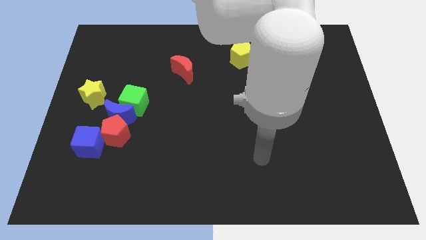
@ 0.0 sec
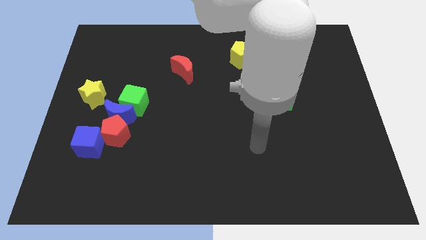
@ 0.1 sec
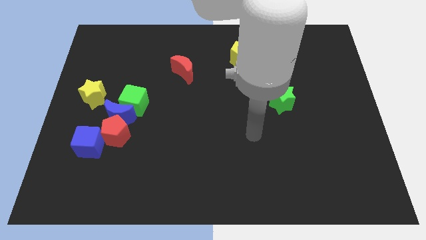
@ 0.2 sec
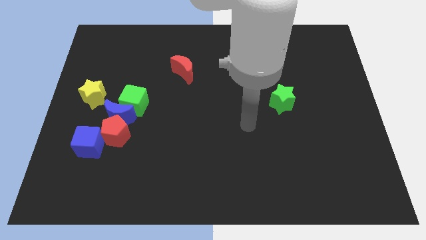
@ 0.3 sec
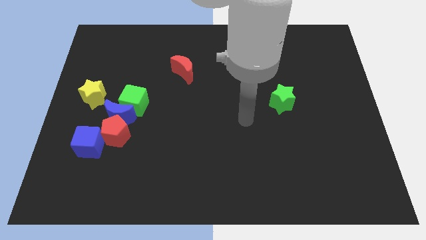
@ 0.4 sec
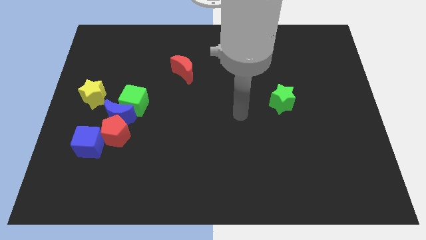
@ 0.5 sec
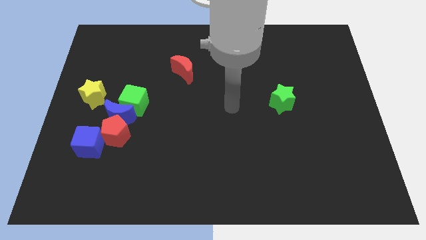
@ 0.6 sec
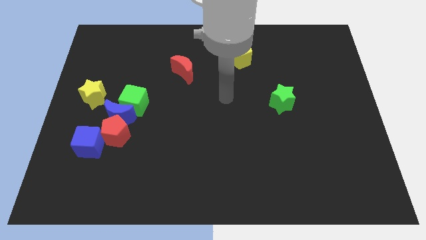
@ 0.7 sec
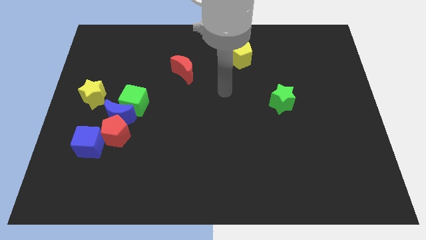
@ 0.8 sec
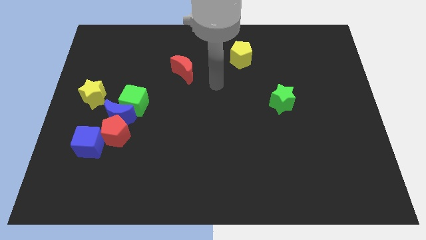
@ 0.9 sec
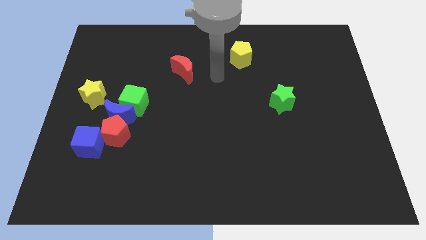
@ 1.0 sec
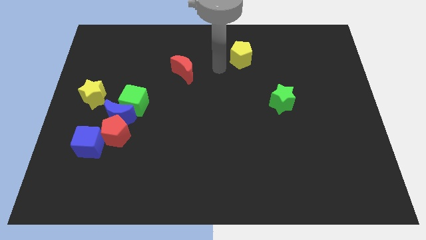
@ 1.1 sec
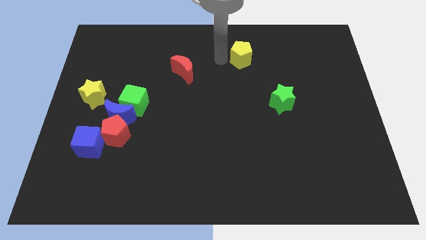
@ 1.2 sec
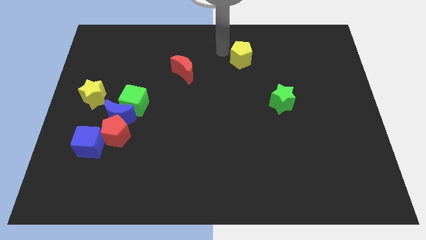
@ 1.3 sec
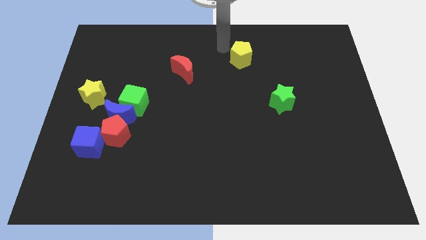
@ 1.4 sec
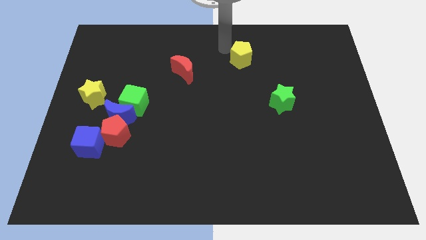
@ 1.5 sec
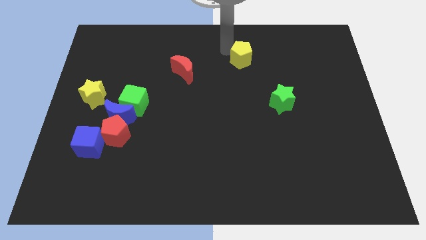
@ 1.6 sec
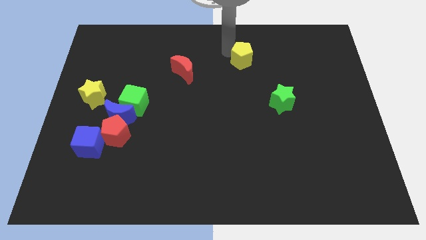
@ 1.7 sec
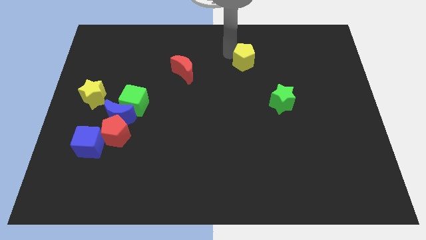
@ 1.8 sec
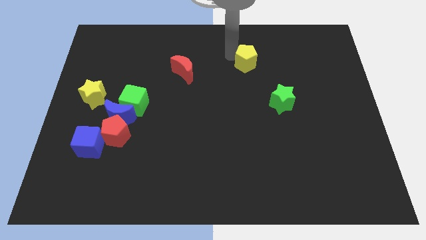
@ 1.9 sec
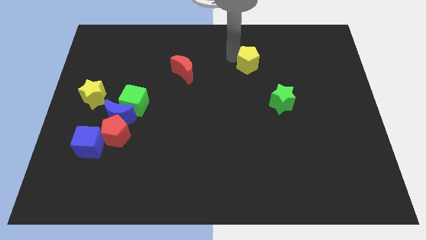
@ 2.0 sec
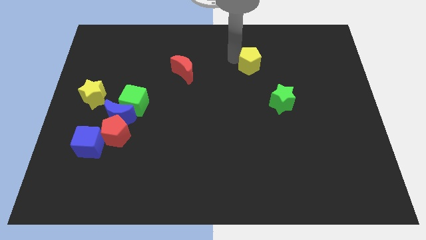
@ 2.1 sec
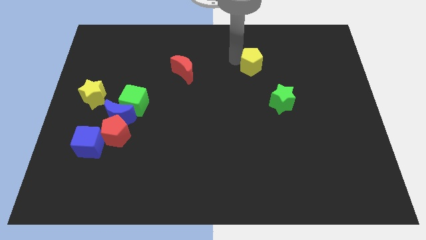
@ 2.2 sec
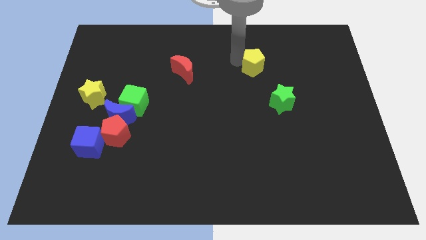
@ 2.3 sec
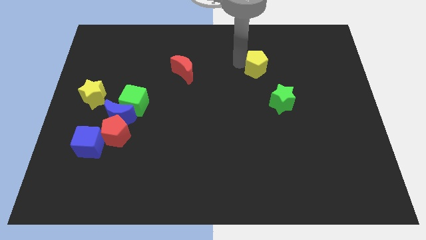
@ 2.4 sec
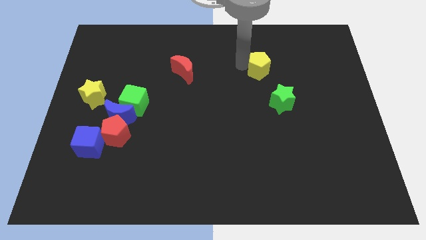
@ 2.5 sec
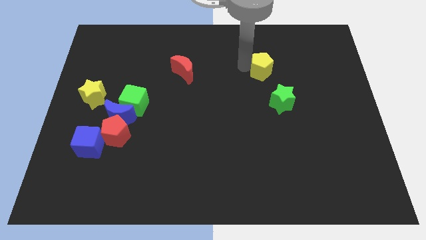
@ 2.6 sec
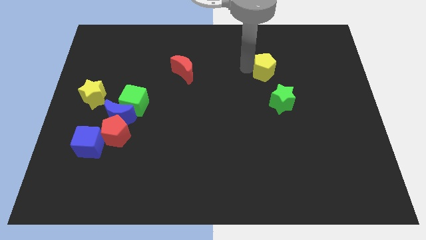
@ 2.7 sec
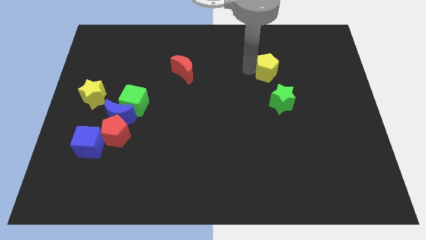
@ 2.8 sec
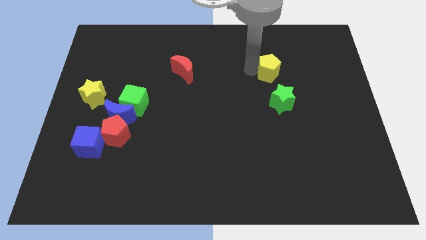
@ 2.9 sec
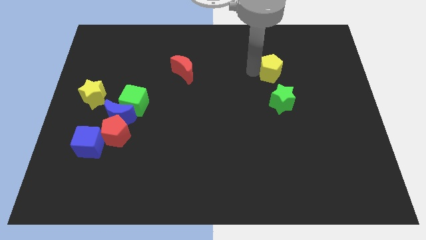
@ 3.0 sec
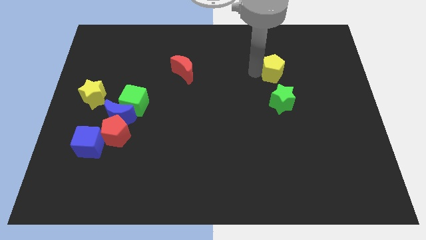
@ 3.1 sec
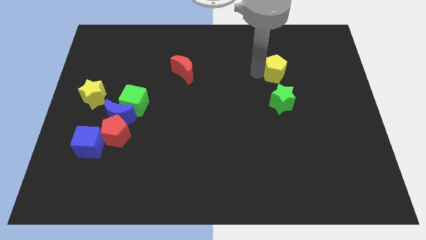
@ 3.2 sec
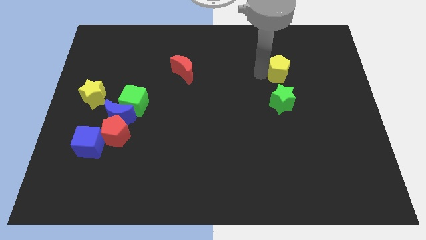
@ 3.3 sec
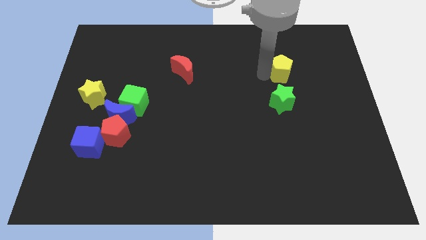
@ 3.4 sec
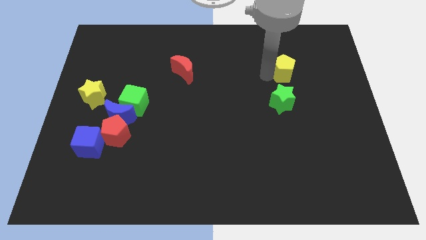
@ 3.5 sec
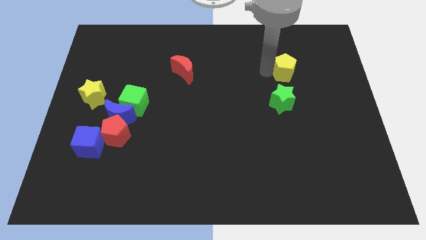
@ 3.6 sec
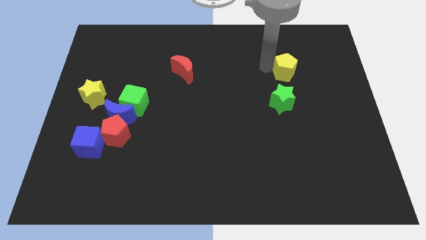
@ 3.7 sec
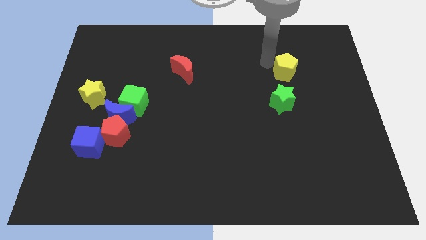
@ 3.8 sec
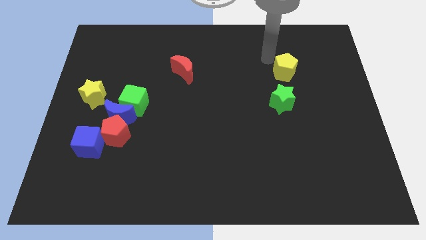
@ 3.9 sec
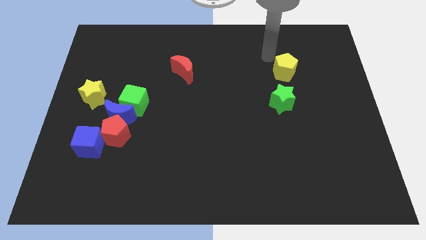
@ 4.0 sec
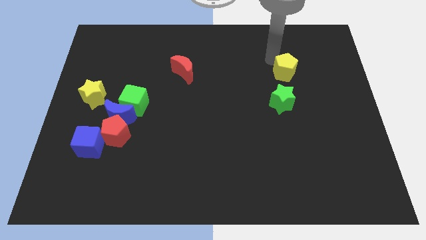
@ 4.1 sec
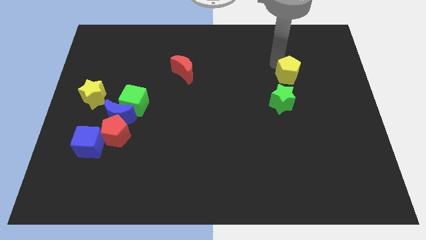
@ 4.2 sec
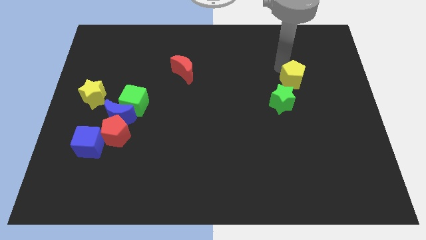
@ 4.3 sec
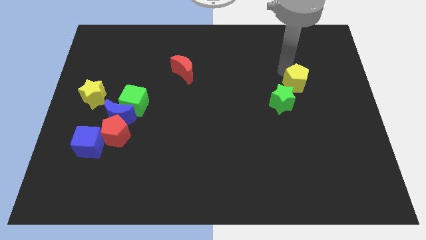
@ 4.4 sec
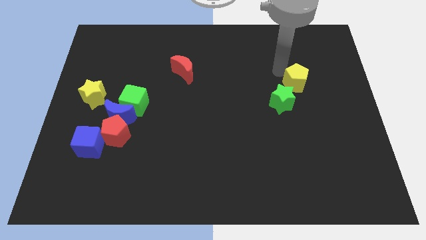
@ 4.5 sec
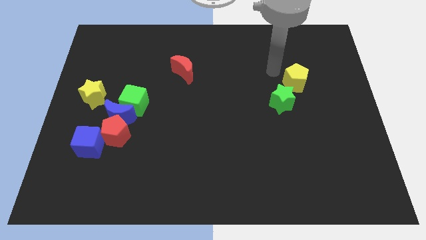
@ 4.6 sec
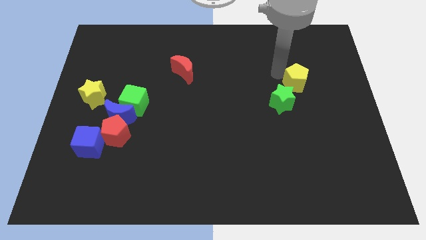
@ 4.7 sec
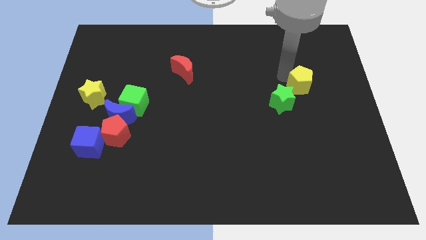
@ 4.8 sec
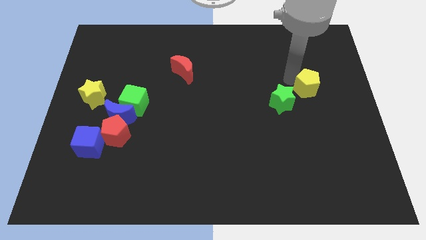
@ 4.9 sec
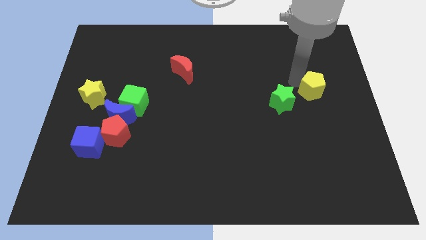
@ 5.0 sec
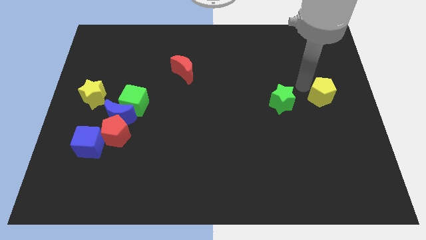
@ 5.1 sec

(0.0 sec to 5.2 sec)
move the yellow pentagon to the right side of the board
